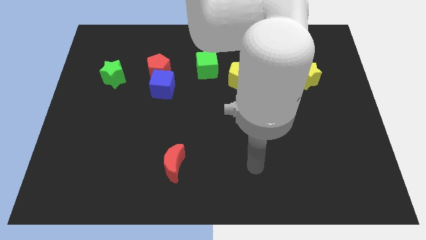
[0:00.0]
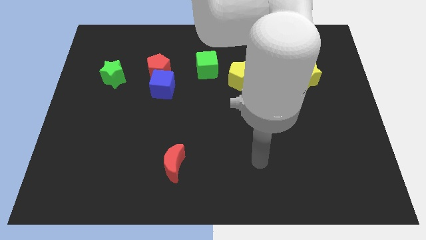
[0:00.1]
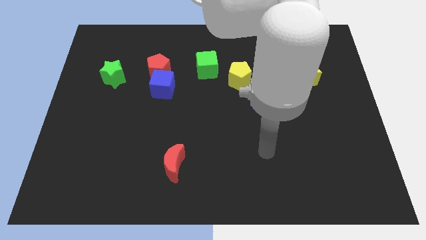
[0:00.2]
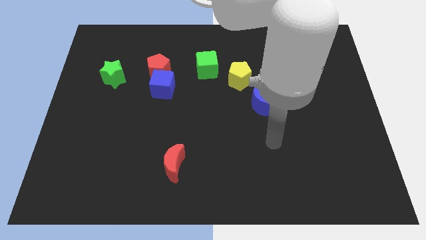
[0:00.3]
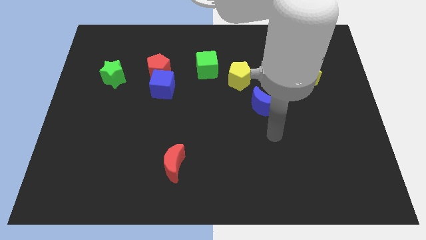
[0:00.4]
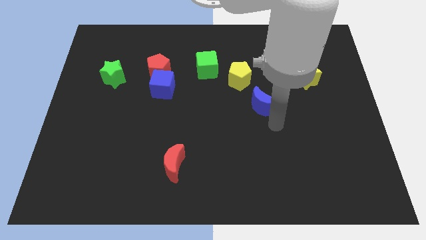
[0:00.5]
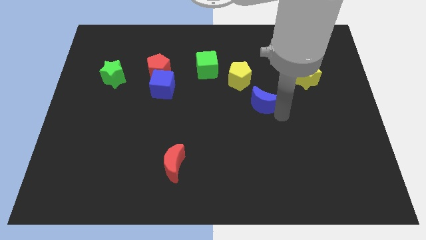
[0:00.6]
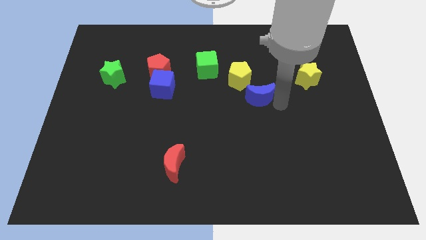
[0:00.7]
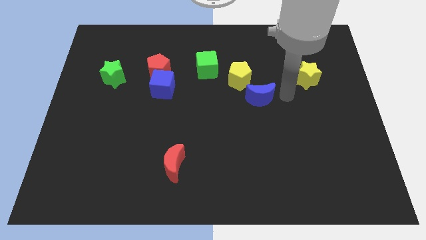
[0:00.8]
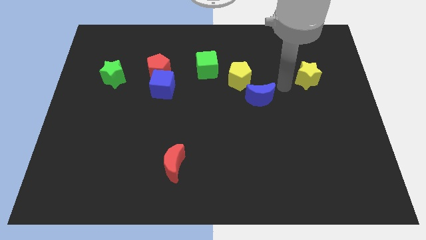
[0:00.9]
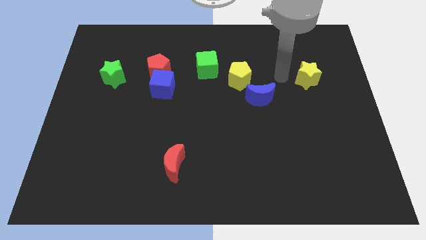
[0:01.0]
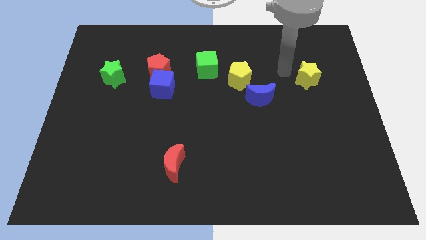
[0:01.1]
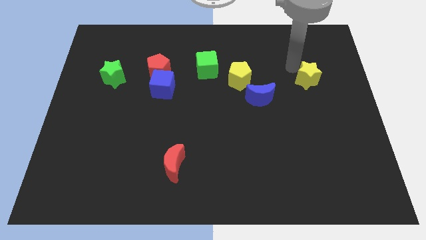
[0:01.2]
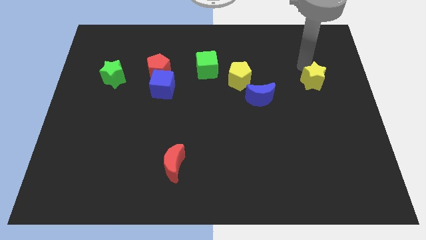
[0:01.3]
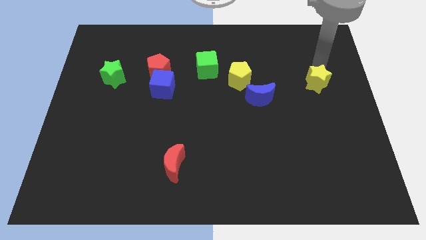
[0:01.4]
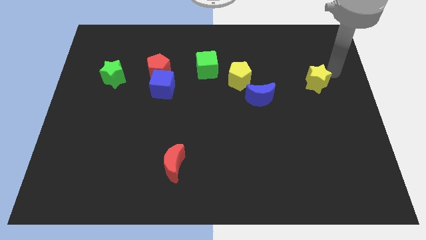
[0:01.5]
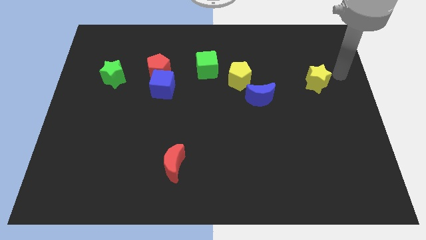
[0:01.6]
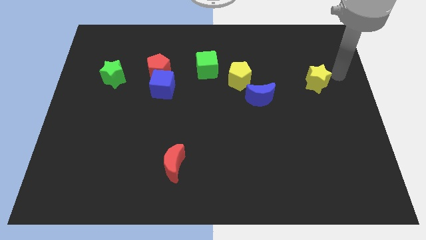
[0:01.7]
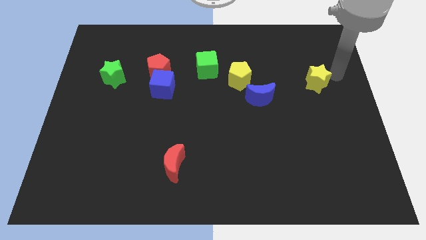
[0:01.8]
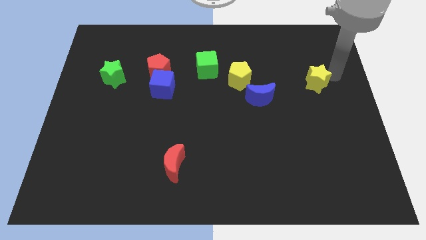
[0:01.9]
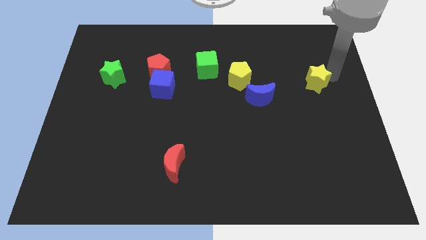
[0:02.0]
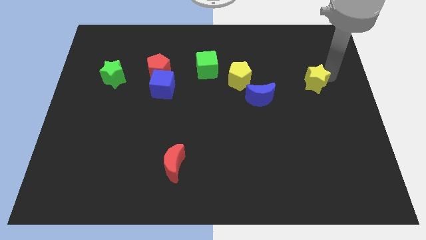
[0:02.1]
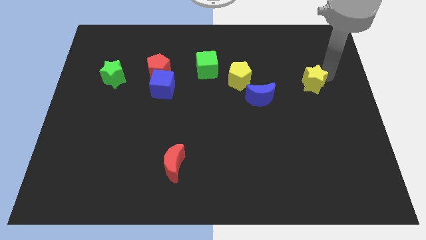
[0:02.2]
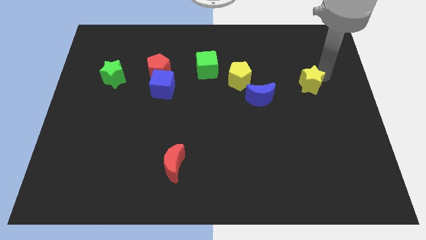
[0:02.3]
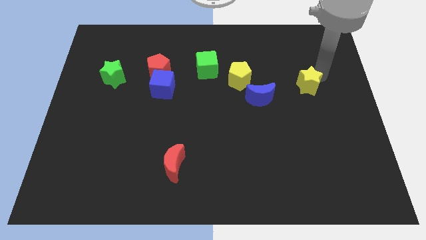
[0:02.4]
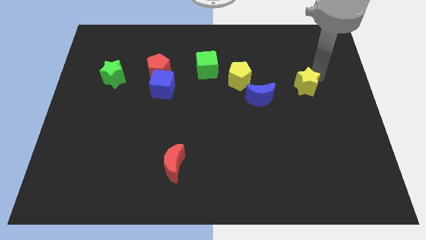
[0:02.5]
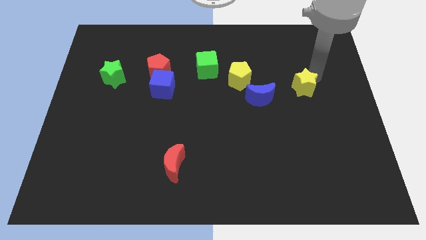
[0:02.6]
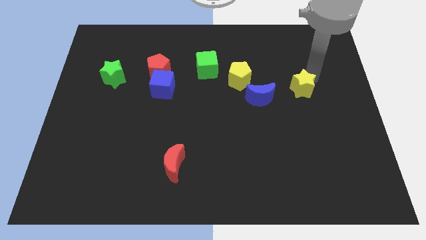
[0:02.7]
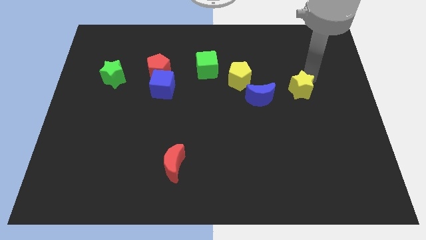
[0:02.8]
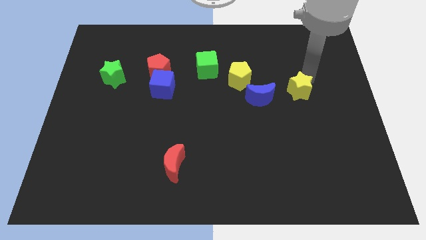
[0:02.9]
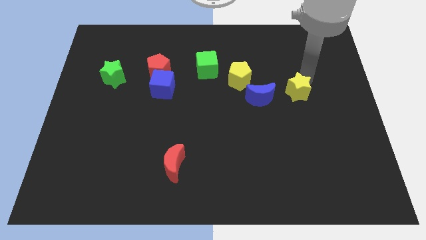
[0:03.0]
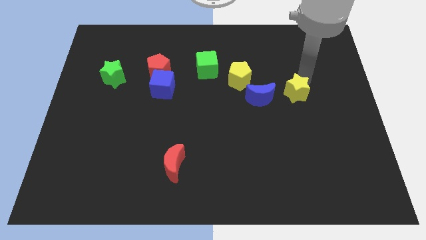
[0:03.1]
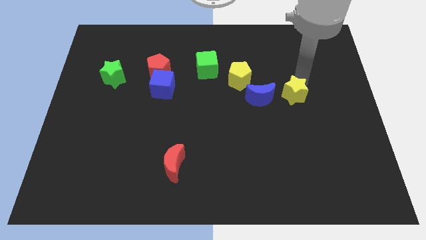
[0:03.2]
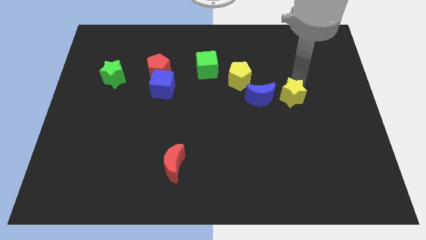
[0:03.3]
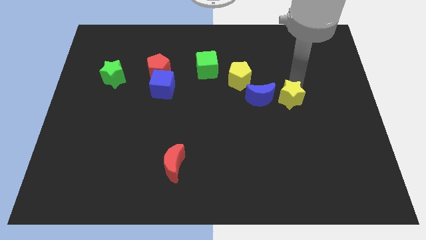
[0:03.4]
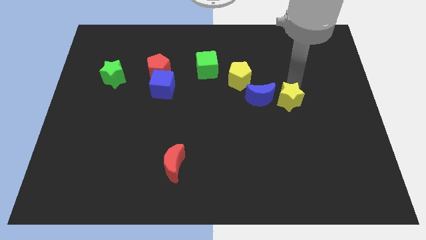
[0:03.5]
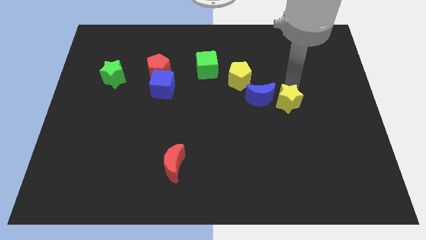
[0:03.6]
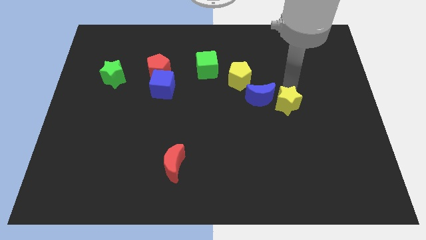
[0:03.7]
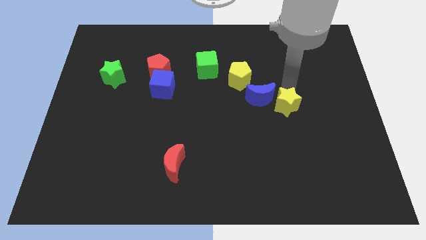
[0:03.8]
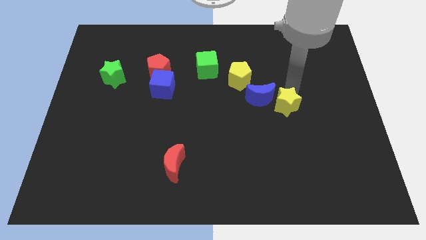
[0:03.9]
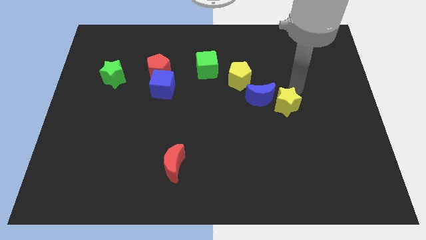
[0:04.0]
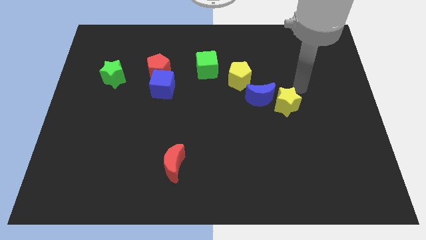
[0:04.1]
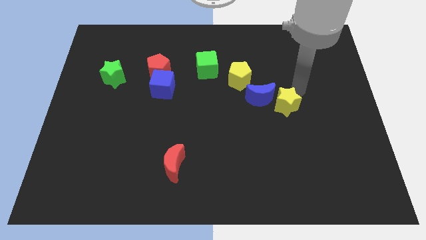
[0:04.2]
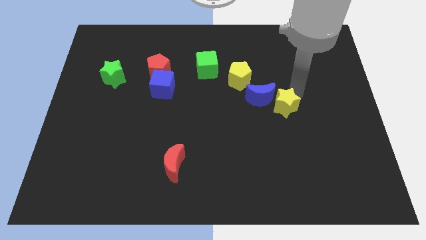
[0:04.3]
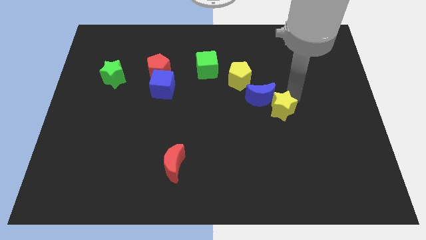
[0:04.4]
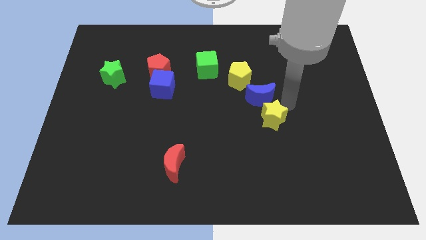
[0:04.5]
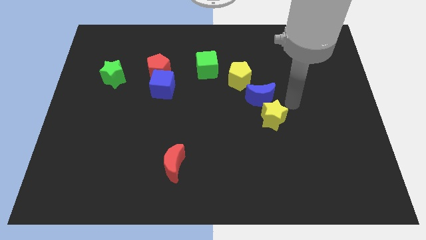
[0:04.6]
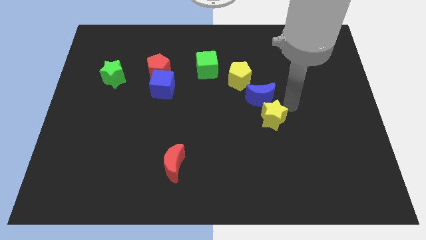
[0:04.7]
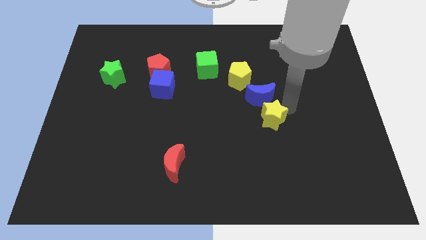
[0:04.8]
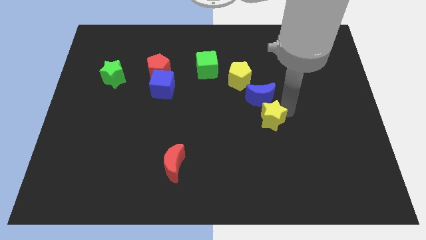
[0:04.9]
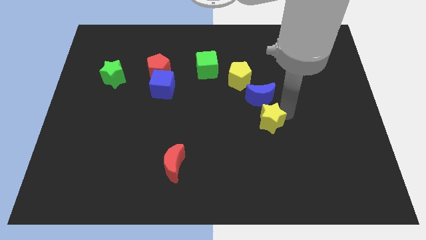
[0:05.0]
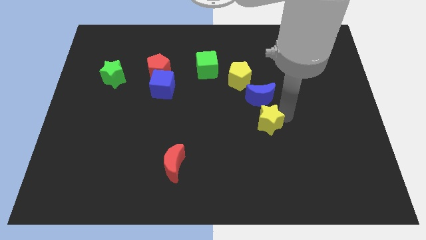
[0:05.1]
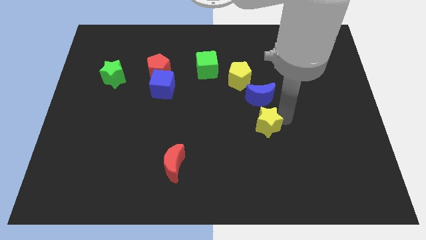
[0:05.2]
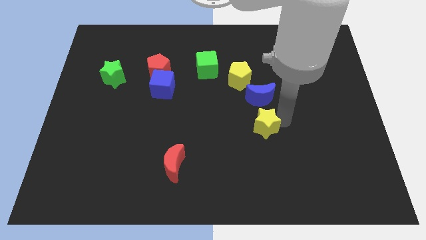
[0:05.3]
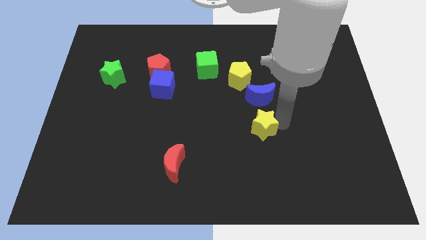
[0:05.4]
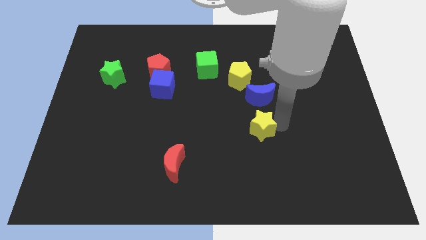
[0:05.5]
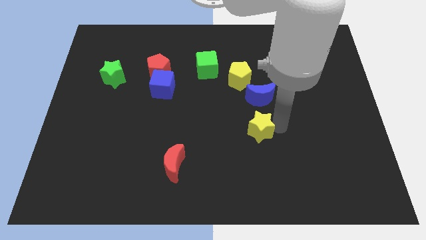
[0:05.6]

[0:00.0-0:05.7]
move the yellow star down and left diagonally

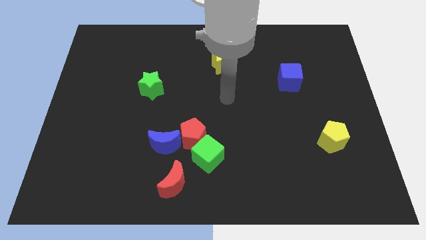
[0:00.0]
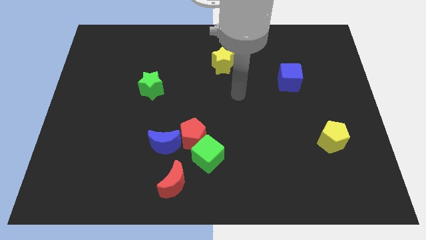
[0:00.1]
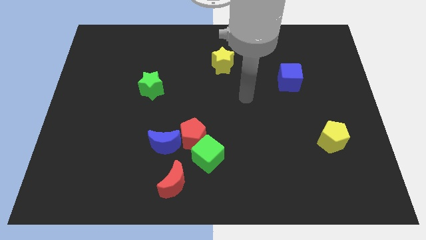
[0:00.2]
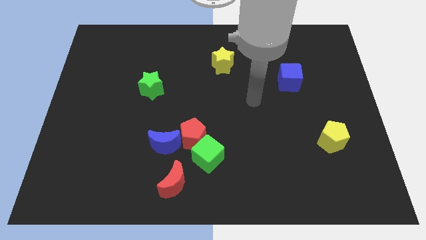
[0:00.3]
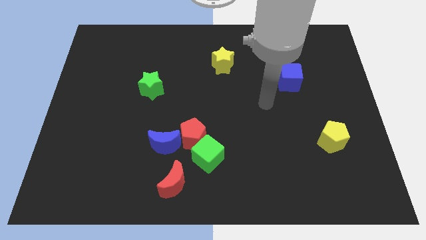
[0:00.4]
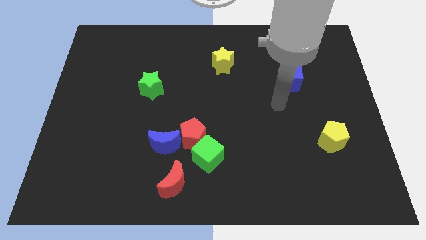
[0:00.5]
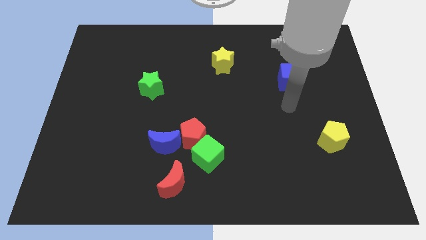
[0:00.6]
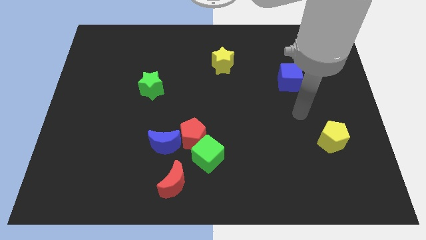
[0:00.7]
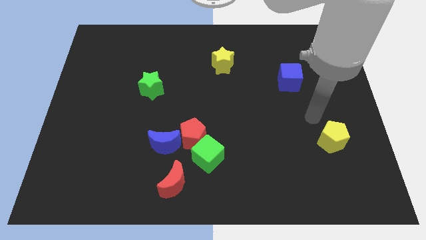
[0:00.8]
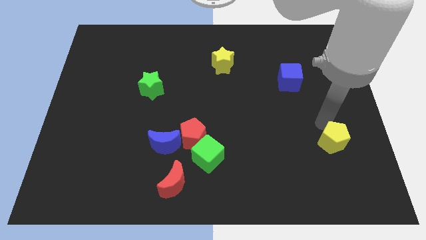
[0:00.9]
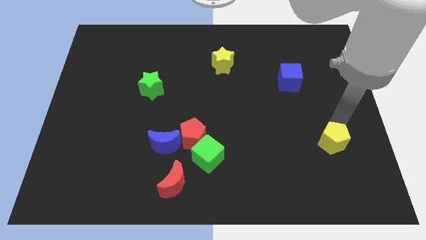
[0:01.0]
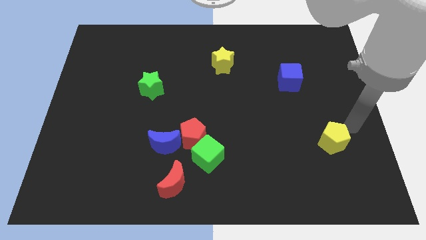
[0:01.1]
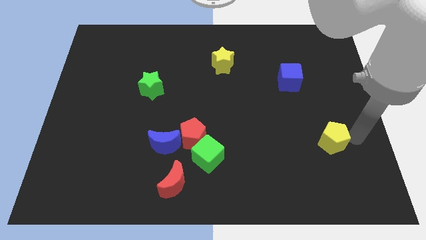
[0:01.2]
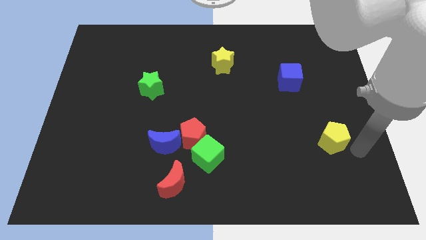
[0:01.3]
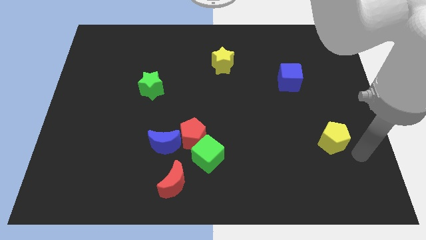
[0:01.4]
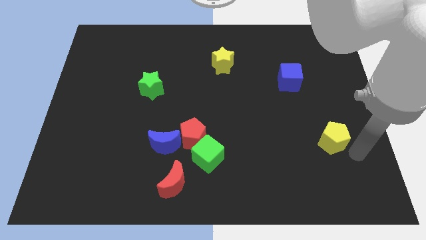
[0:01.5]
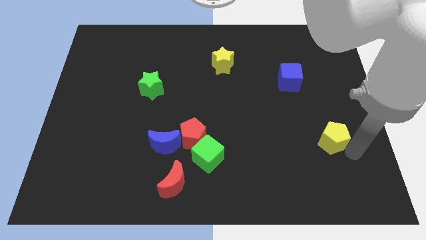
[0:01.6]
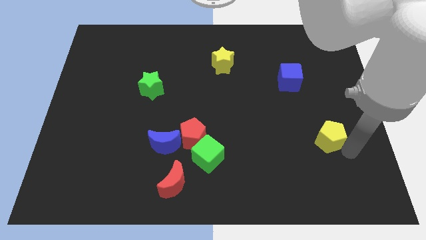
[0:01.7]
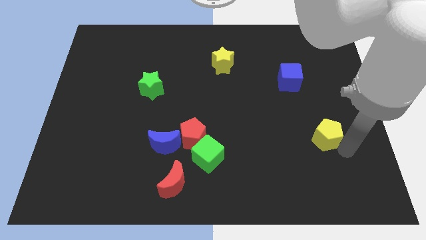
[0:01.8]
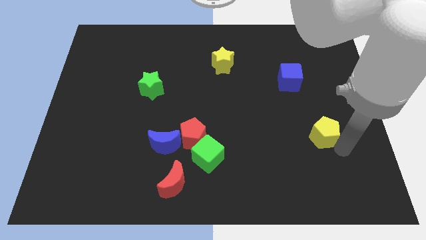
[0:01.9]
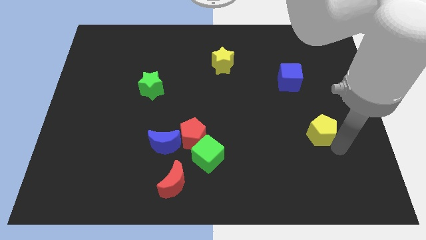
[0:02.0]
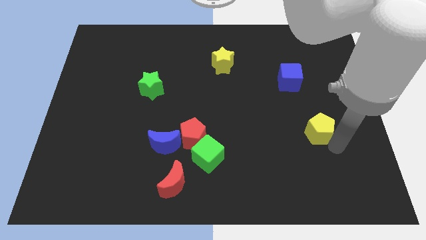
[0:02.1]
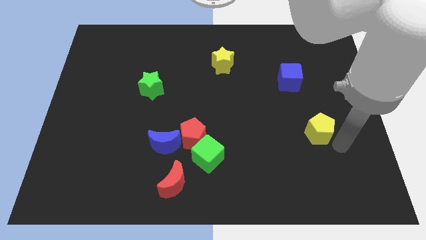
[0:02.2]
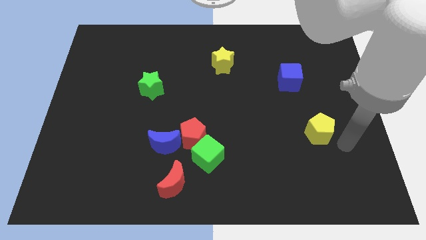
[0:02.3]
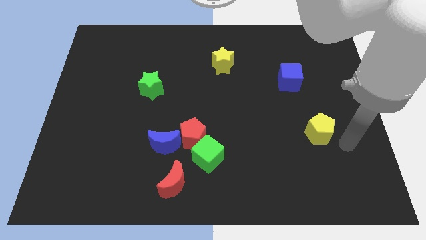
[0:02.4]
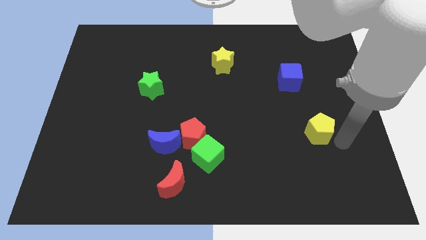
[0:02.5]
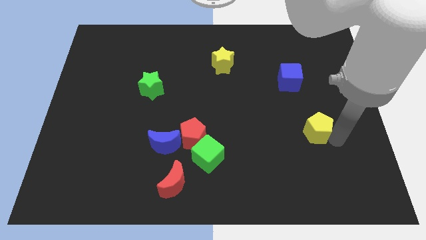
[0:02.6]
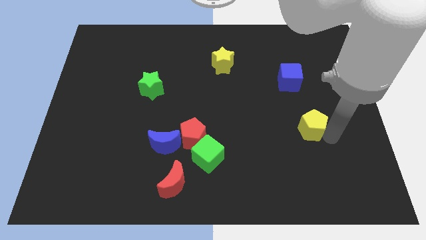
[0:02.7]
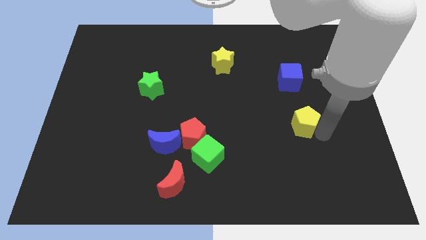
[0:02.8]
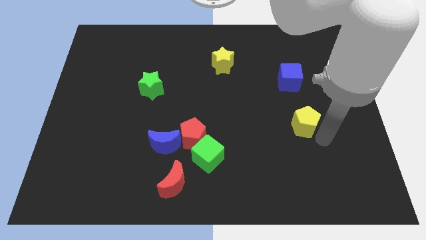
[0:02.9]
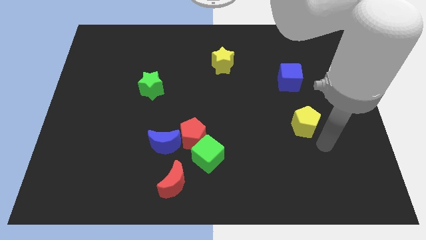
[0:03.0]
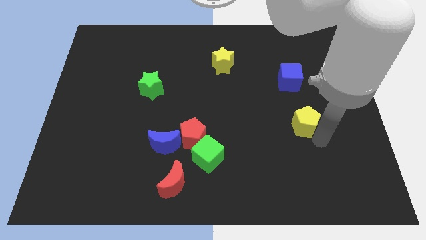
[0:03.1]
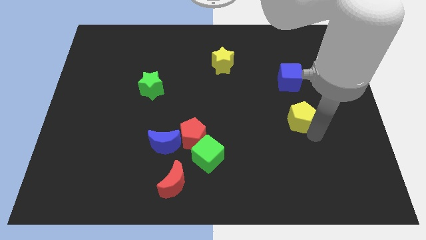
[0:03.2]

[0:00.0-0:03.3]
slightly push the yellow pentagon upwards and left diagonally
